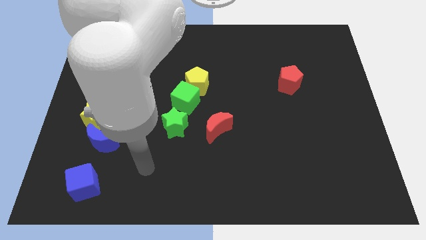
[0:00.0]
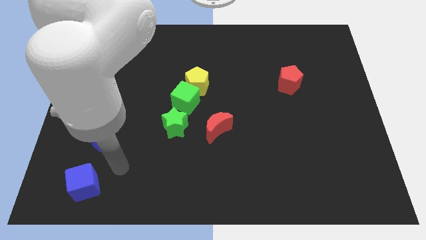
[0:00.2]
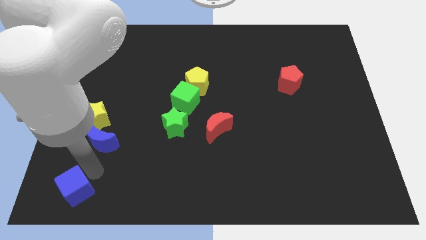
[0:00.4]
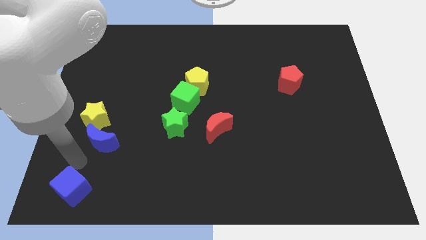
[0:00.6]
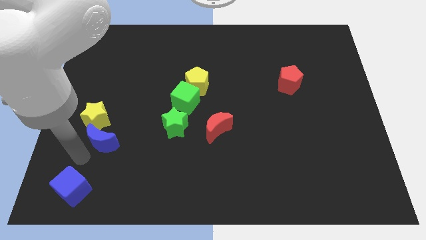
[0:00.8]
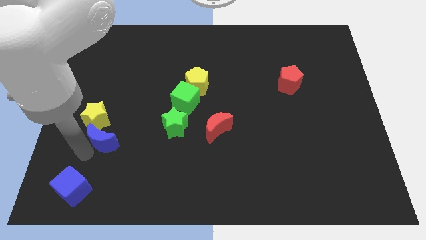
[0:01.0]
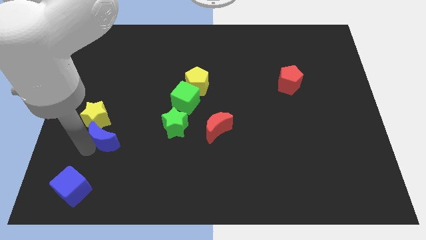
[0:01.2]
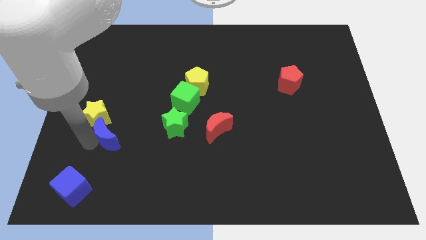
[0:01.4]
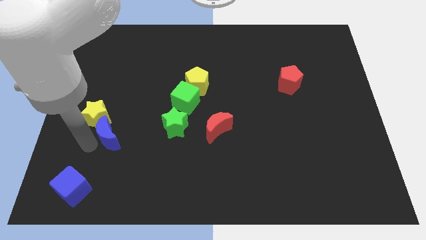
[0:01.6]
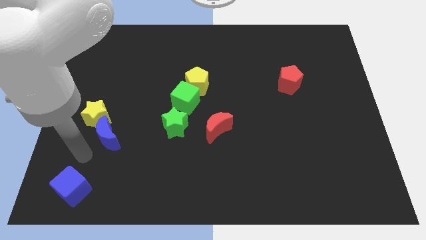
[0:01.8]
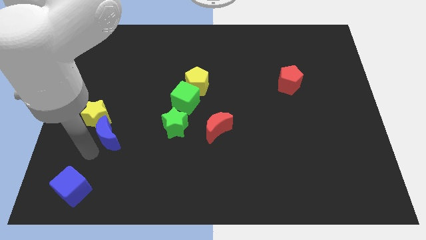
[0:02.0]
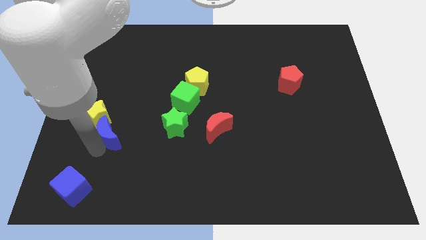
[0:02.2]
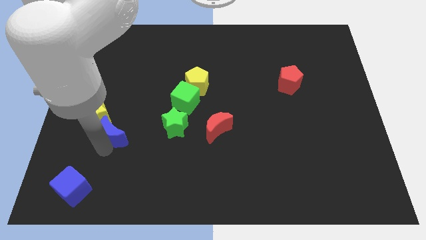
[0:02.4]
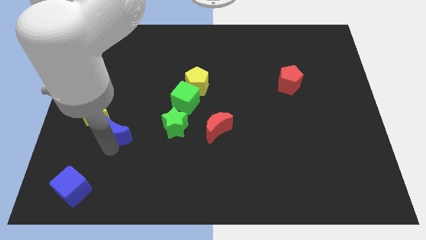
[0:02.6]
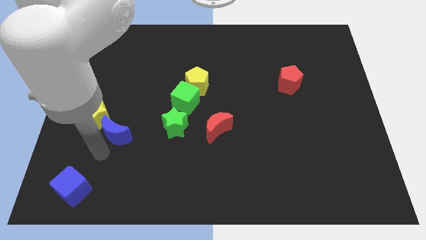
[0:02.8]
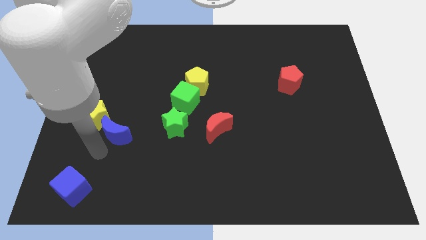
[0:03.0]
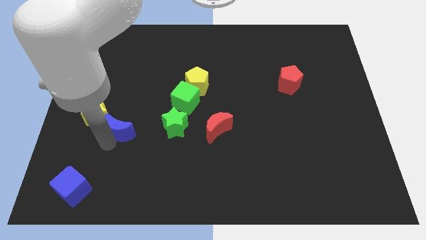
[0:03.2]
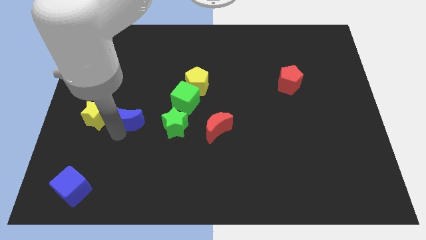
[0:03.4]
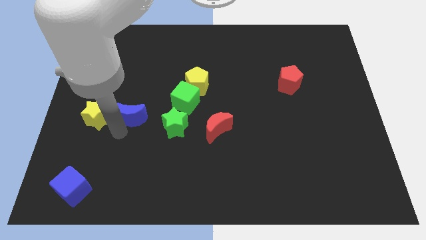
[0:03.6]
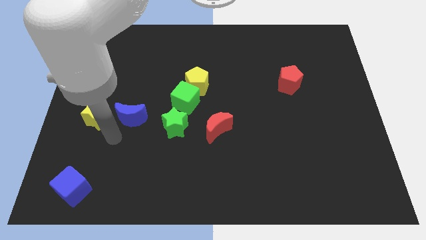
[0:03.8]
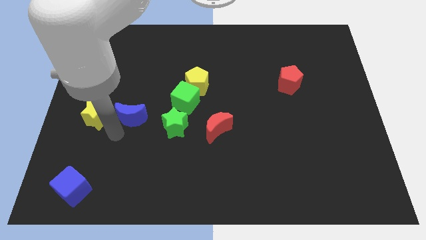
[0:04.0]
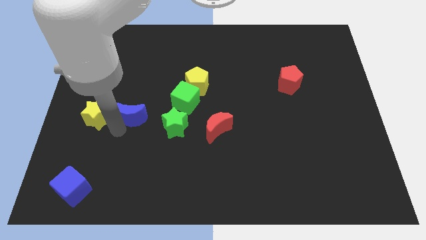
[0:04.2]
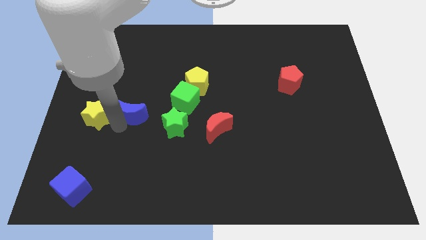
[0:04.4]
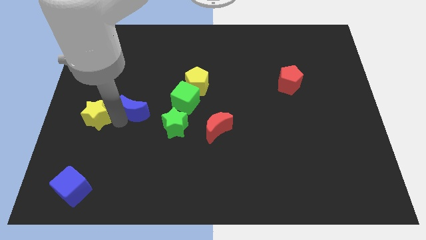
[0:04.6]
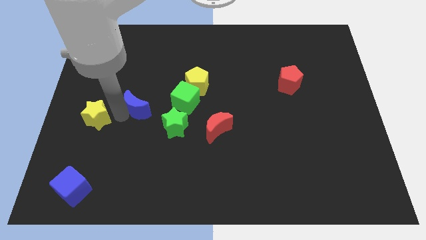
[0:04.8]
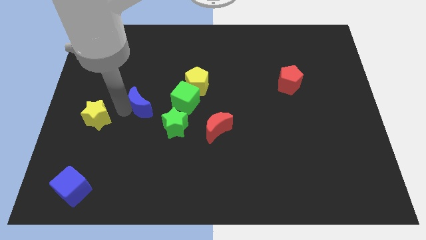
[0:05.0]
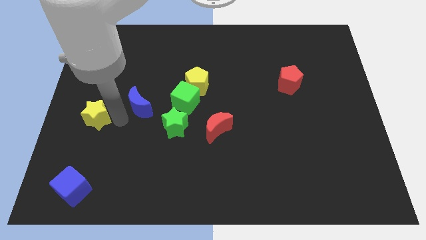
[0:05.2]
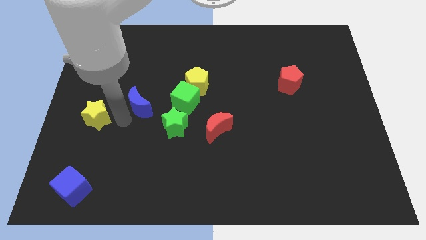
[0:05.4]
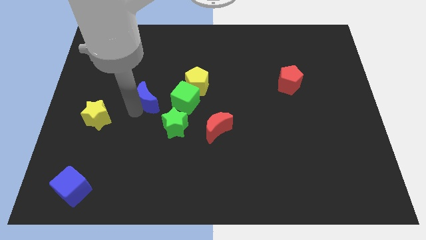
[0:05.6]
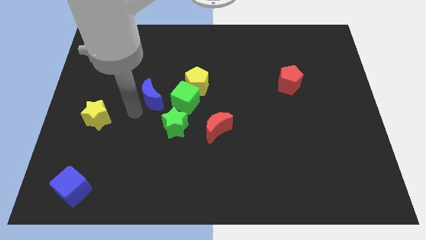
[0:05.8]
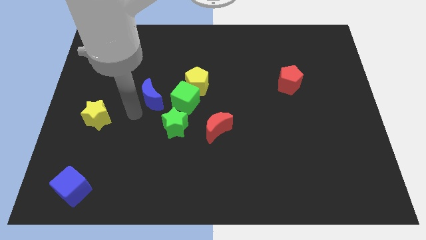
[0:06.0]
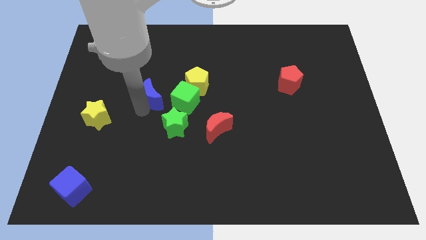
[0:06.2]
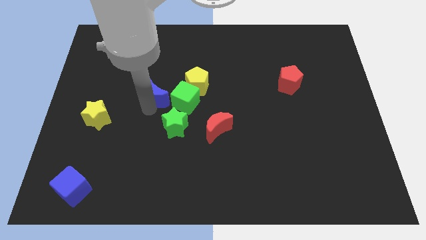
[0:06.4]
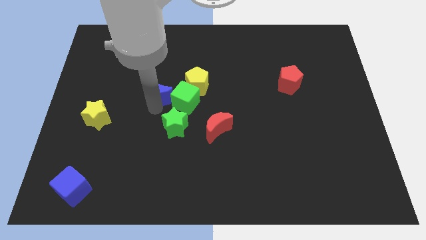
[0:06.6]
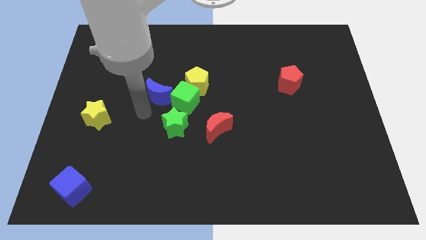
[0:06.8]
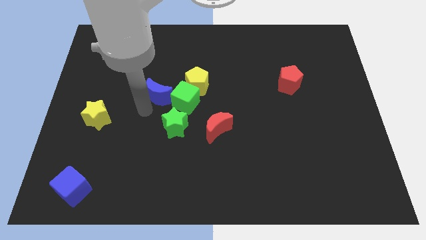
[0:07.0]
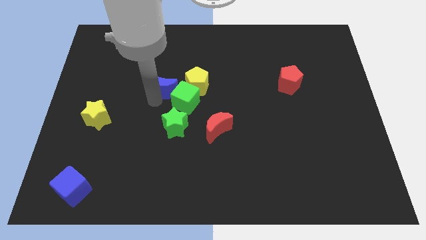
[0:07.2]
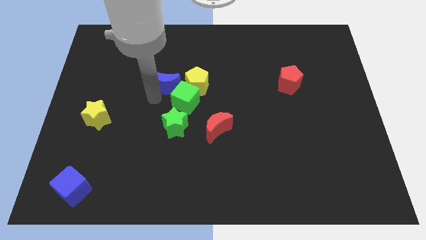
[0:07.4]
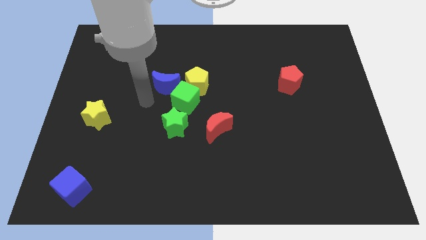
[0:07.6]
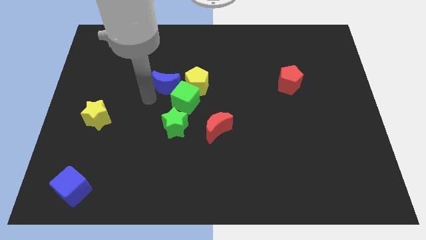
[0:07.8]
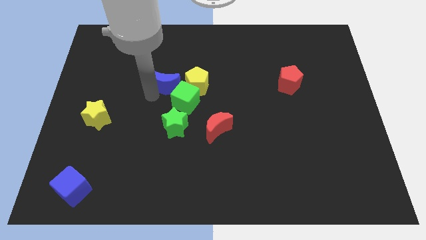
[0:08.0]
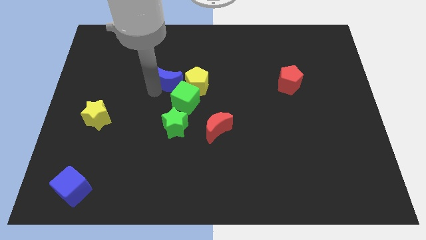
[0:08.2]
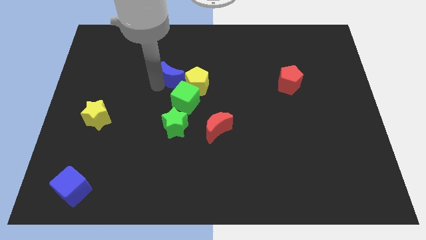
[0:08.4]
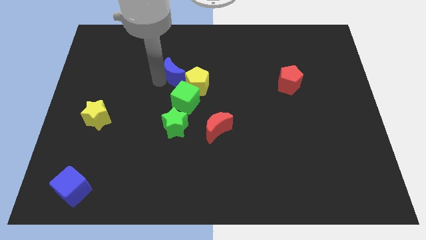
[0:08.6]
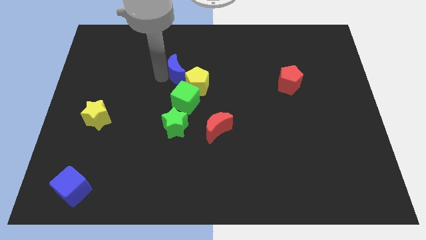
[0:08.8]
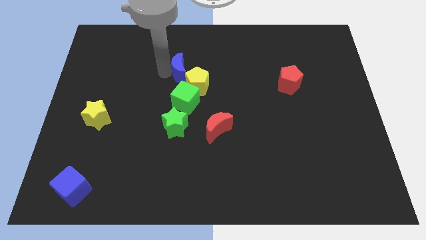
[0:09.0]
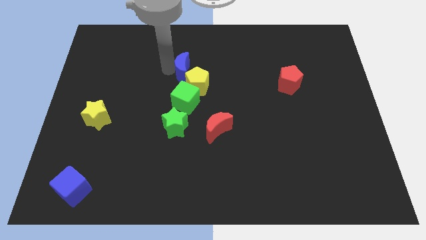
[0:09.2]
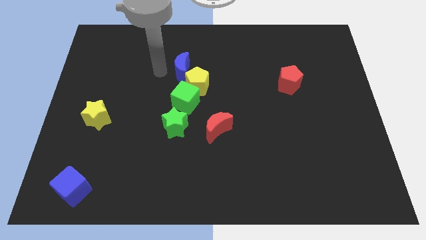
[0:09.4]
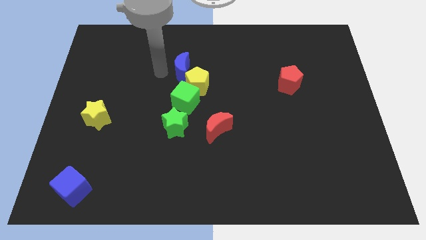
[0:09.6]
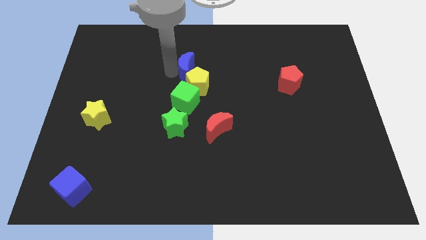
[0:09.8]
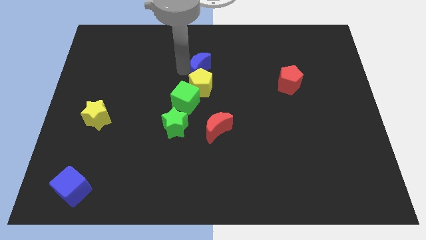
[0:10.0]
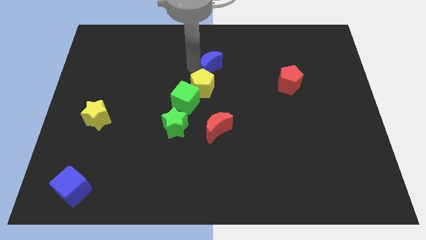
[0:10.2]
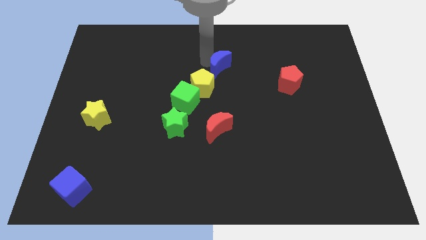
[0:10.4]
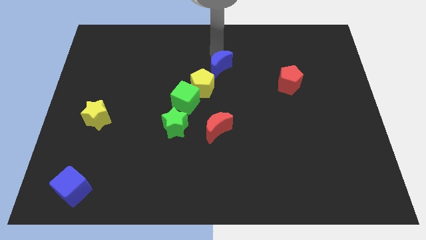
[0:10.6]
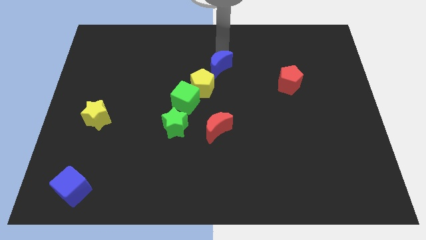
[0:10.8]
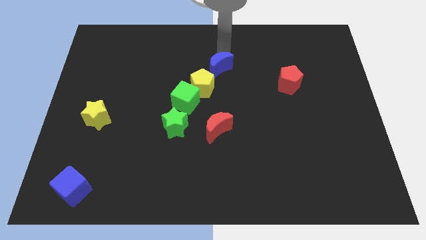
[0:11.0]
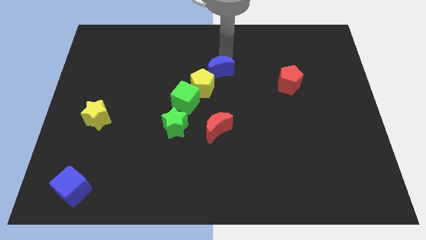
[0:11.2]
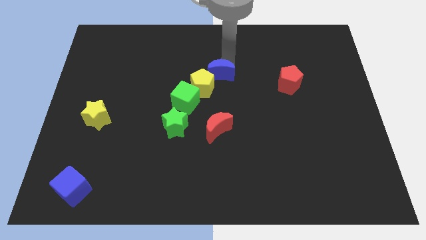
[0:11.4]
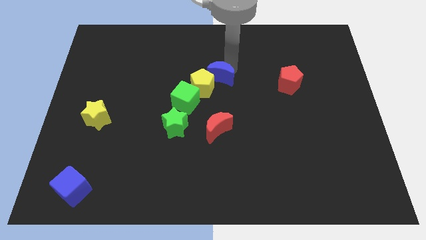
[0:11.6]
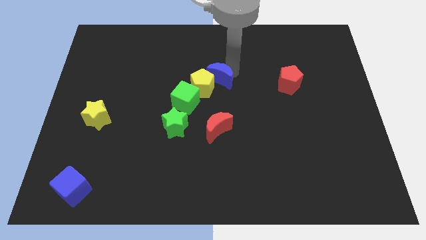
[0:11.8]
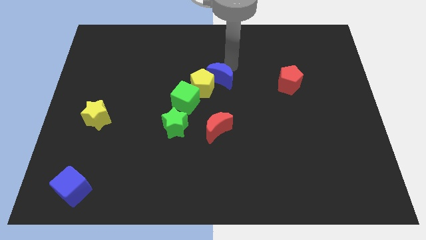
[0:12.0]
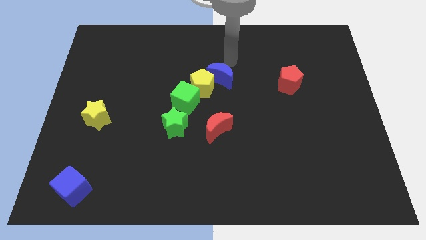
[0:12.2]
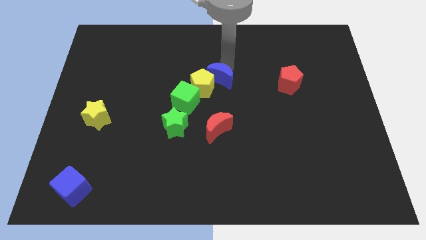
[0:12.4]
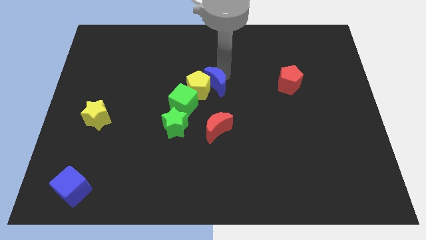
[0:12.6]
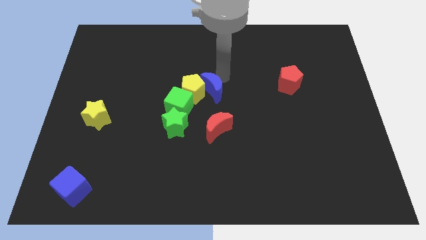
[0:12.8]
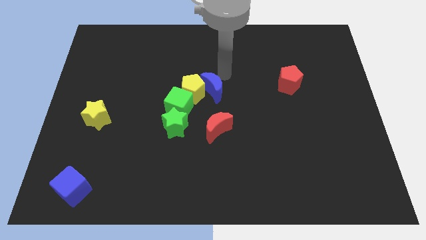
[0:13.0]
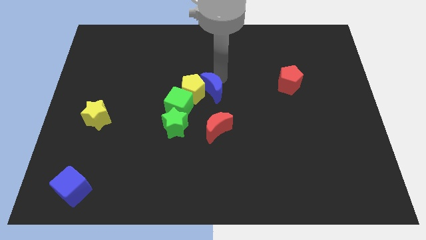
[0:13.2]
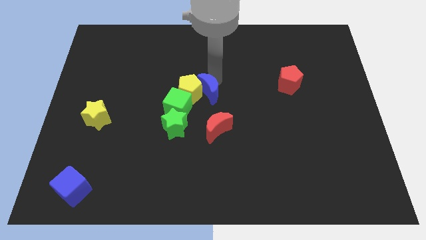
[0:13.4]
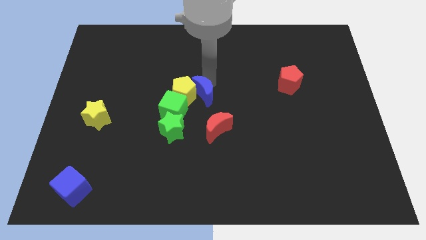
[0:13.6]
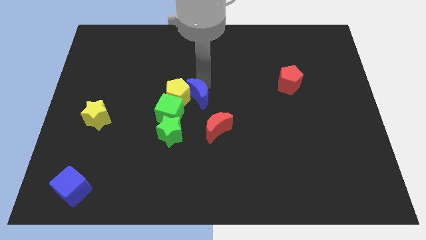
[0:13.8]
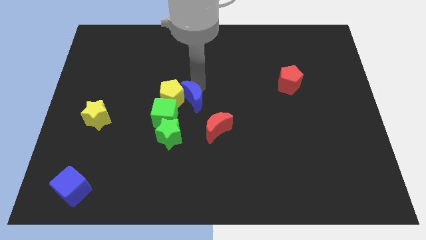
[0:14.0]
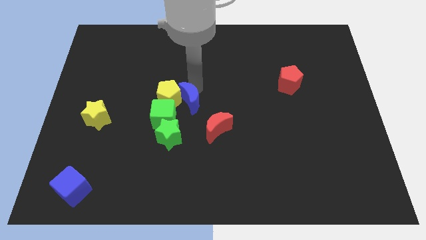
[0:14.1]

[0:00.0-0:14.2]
move the blue moon diagonally up and to the right of the green star

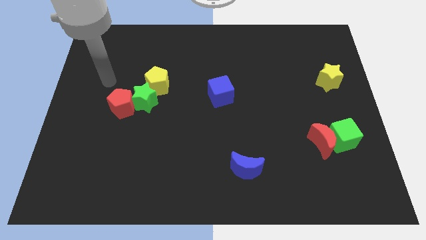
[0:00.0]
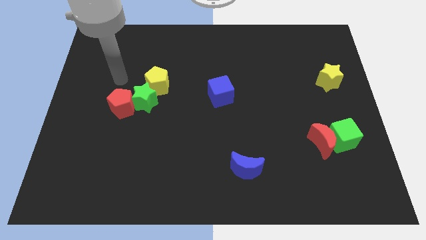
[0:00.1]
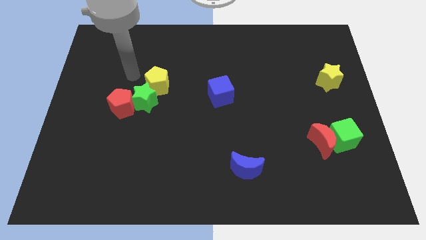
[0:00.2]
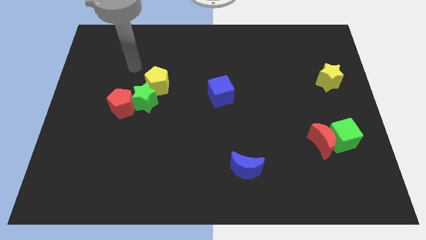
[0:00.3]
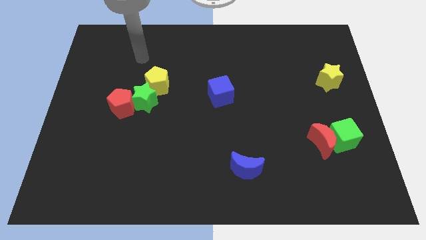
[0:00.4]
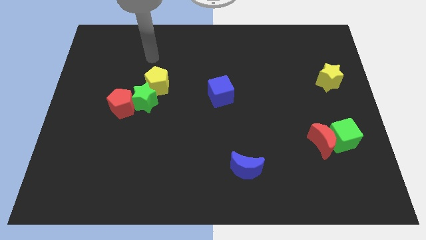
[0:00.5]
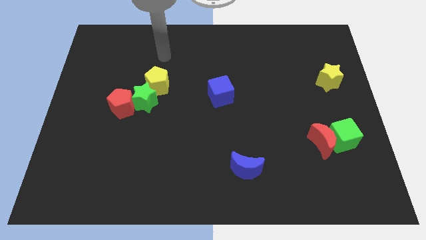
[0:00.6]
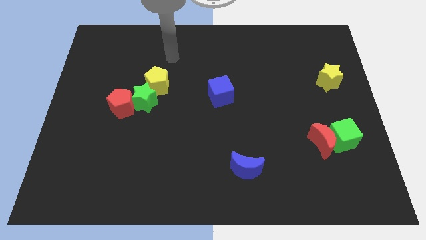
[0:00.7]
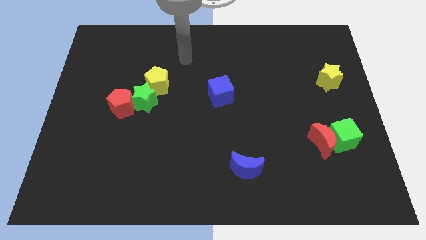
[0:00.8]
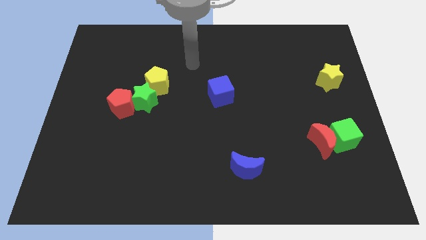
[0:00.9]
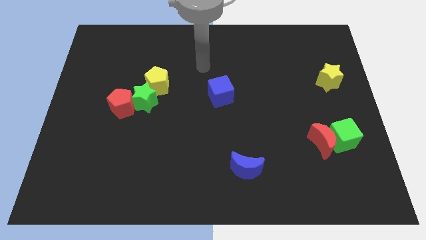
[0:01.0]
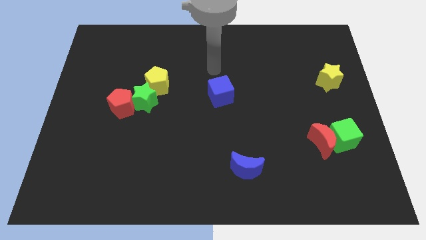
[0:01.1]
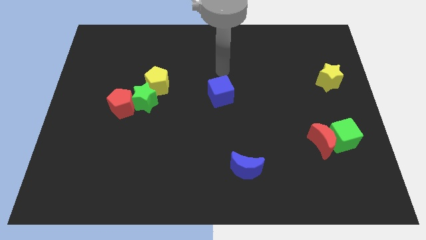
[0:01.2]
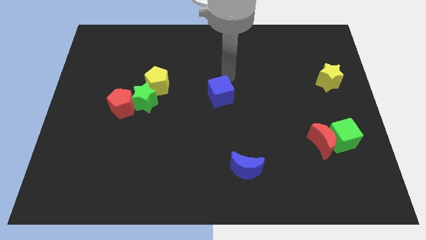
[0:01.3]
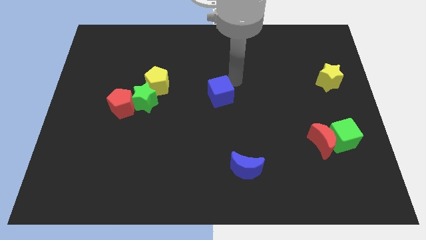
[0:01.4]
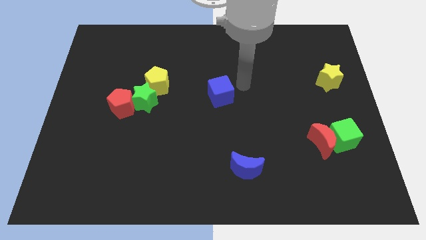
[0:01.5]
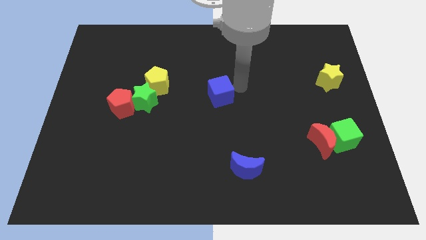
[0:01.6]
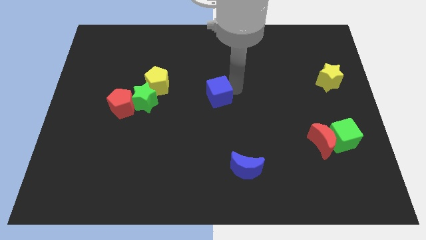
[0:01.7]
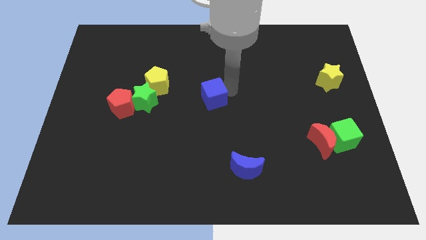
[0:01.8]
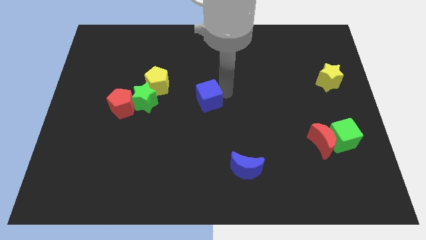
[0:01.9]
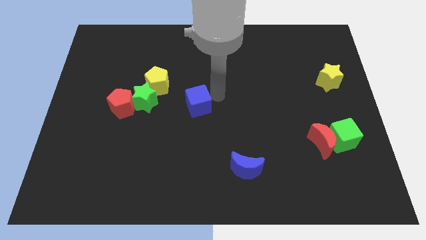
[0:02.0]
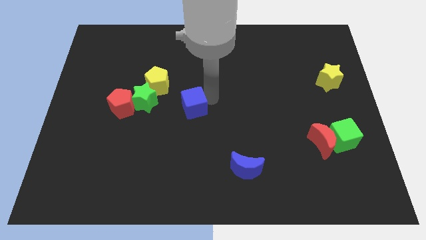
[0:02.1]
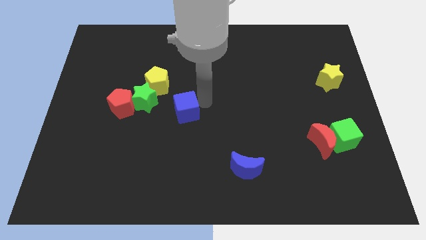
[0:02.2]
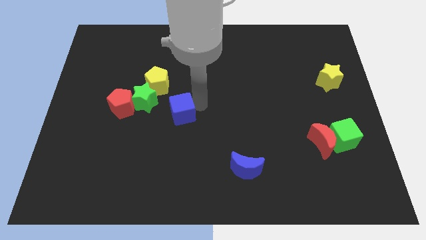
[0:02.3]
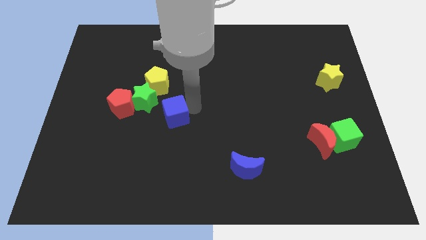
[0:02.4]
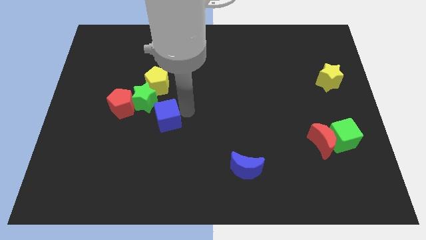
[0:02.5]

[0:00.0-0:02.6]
put the blue cube to the bottom side of the yellow pentagon
